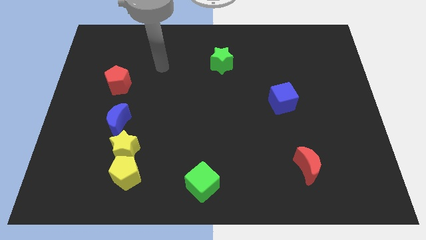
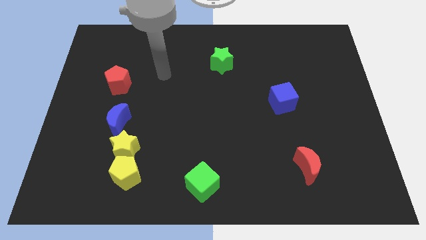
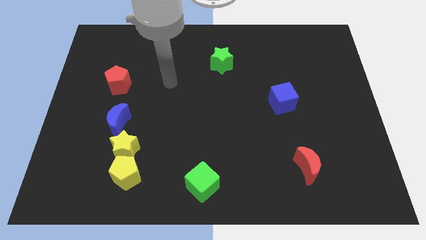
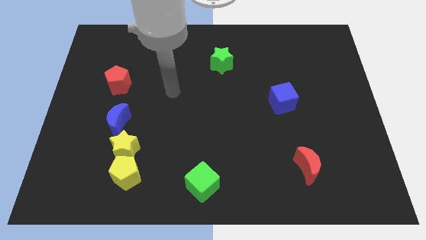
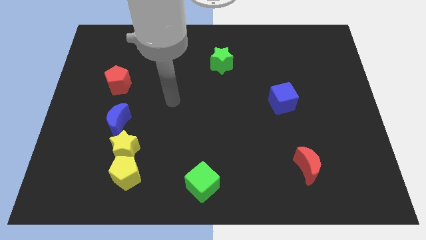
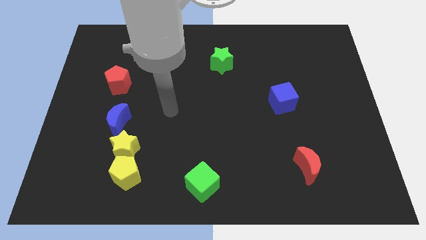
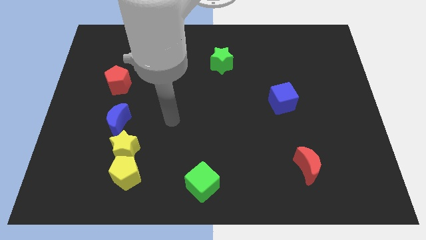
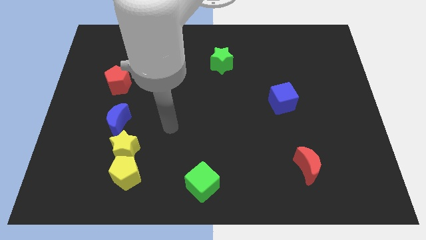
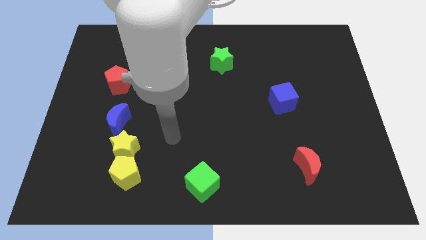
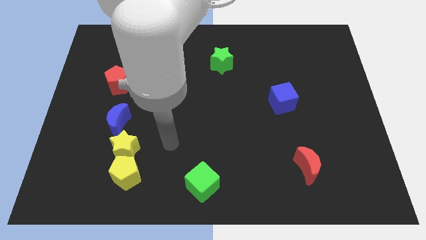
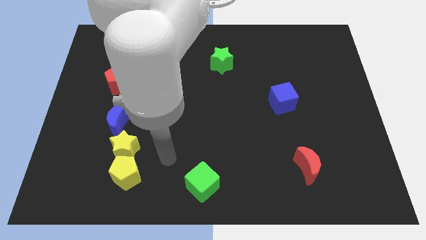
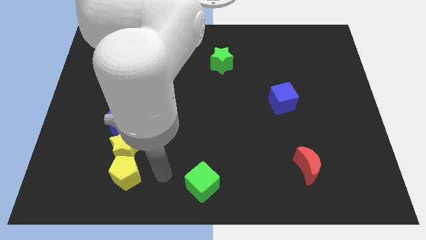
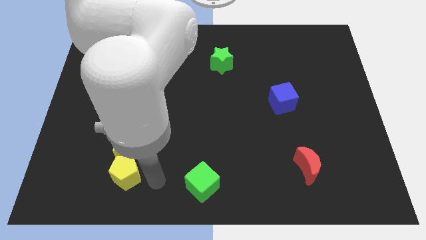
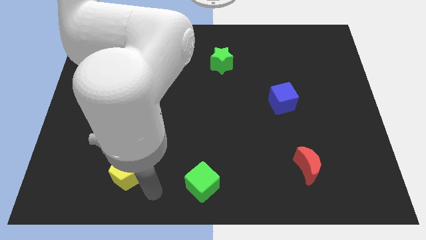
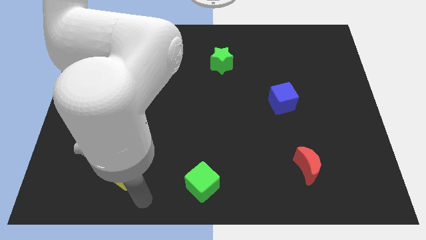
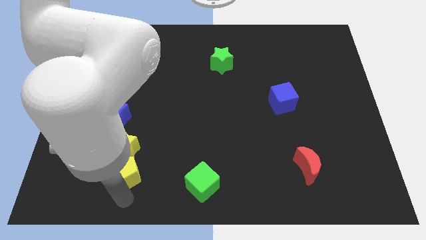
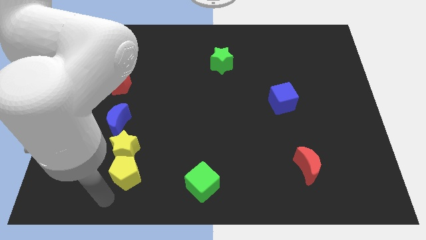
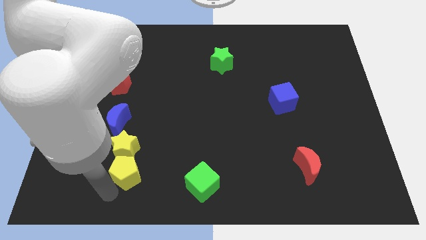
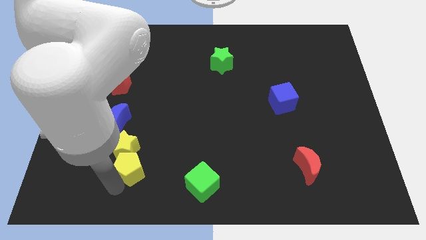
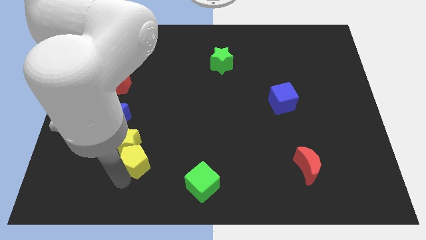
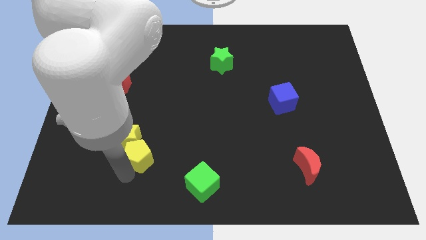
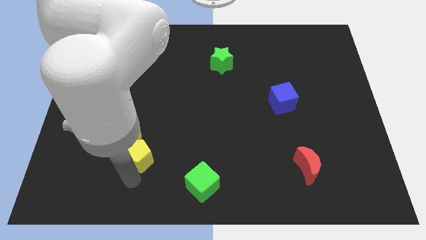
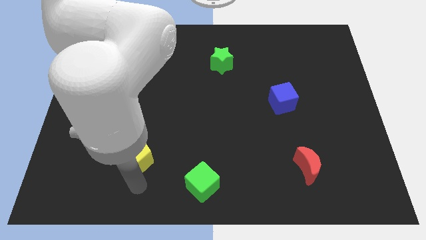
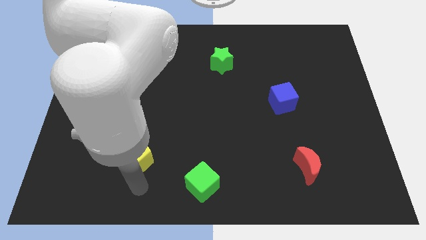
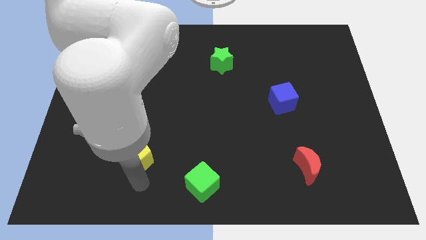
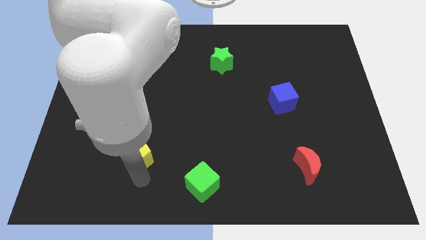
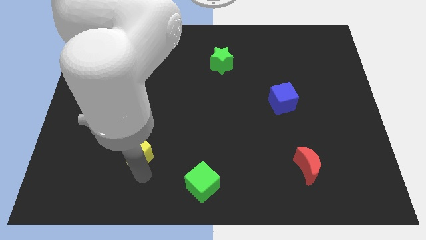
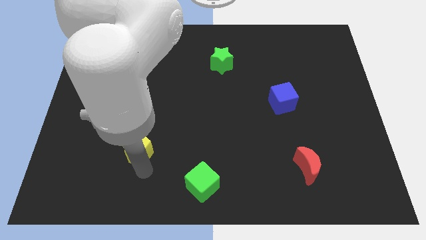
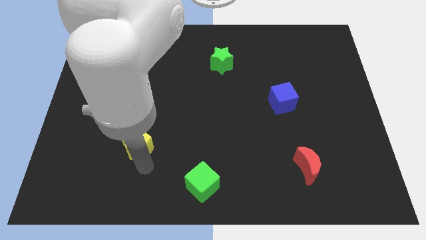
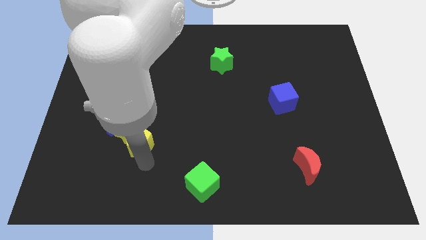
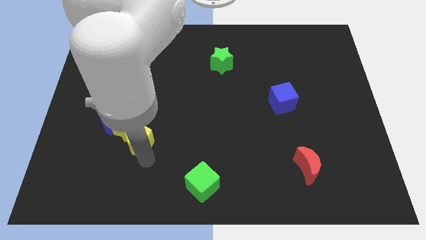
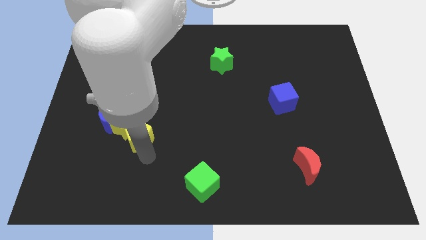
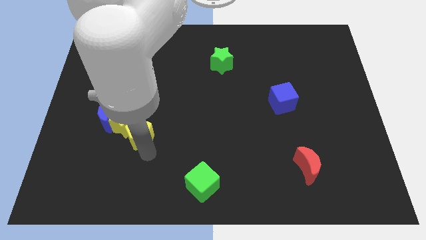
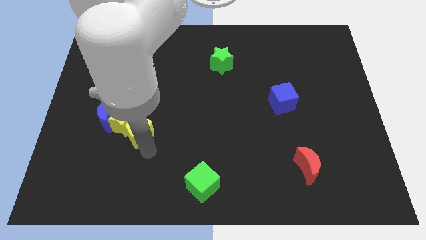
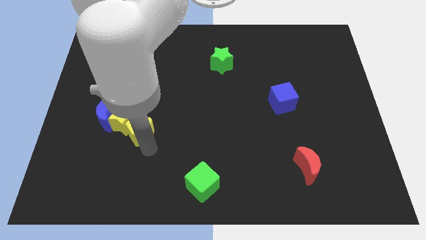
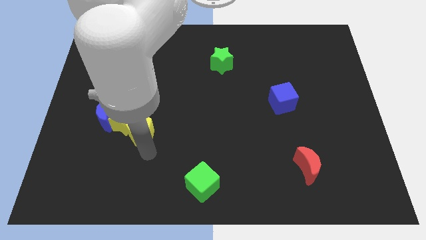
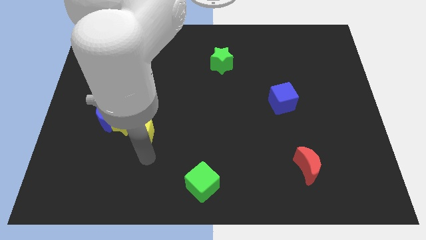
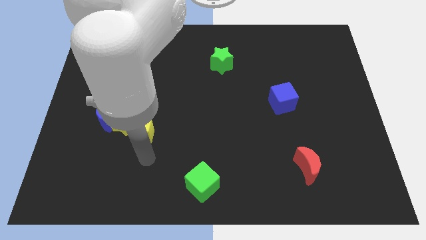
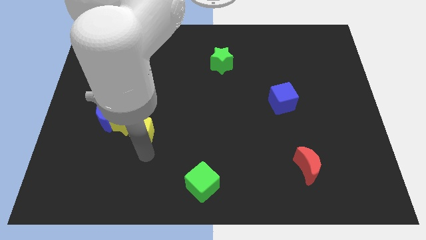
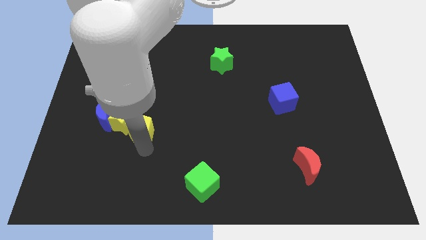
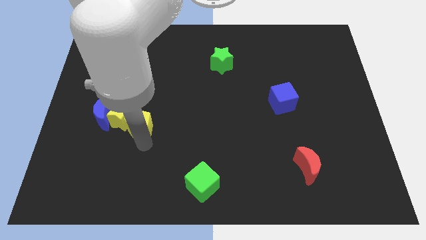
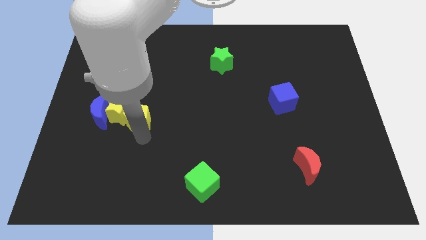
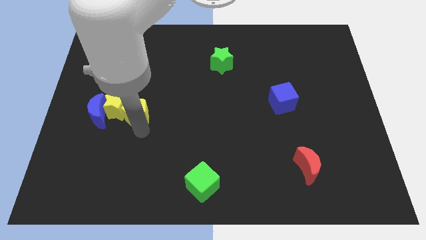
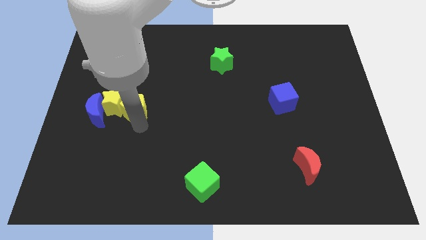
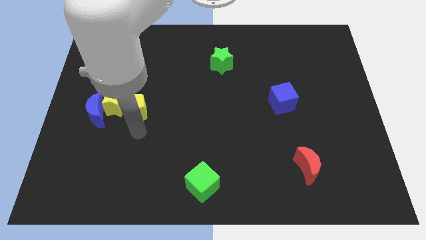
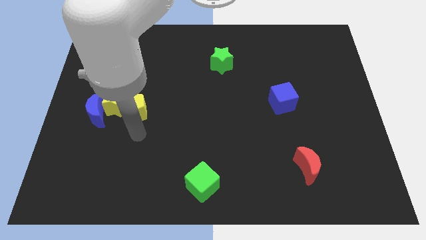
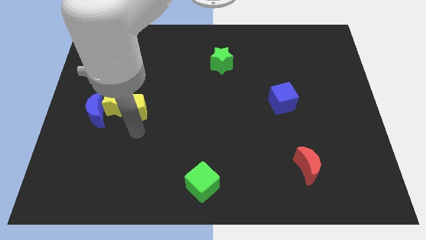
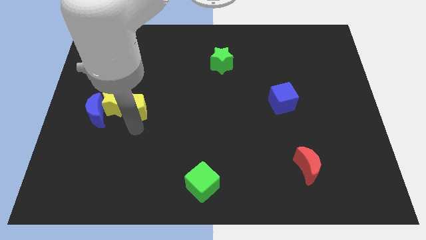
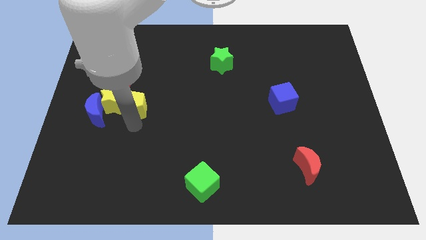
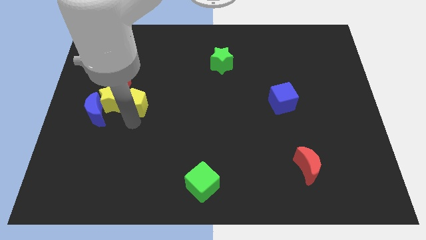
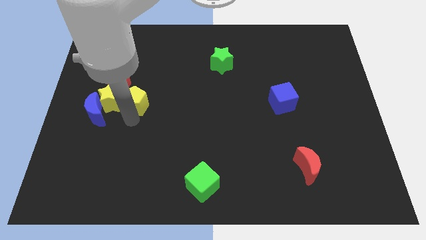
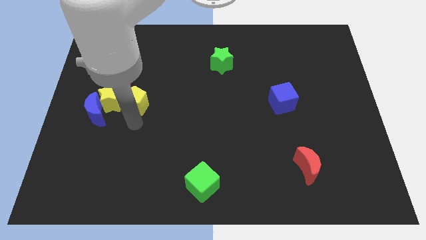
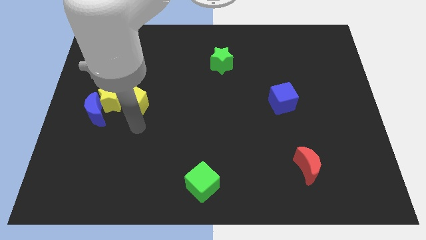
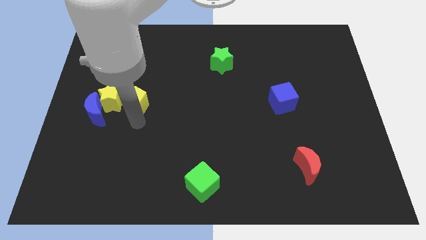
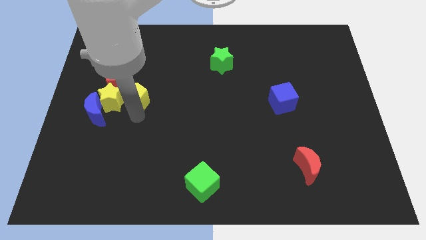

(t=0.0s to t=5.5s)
push the yellow pentagon up

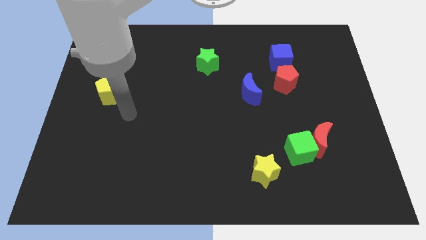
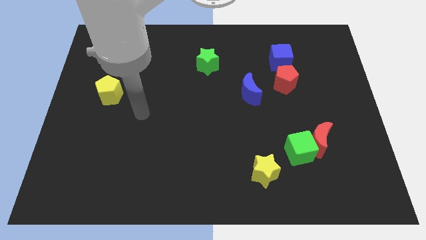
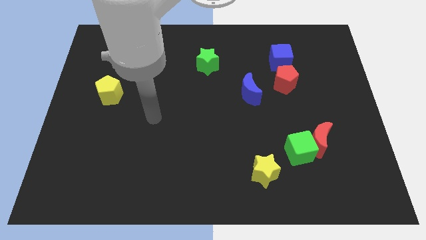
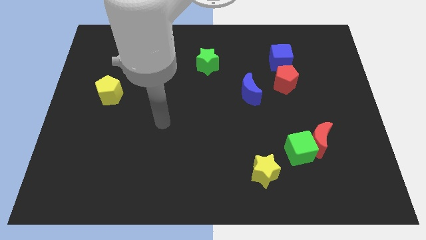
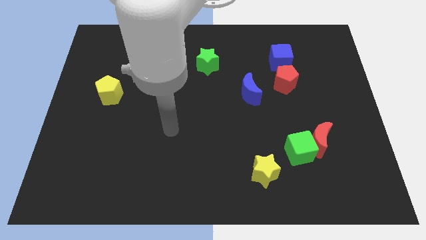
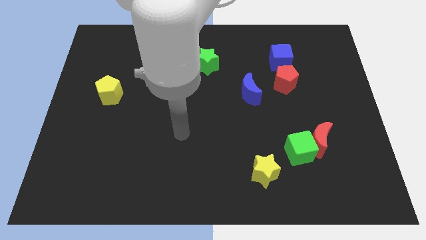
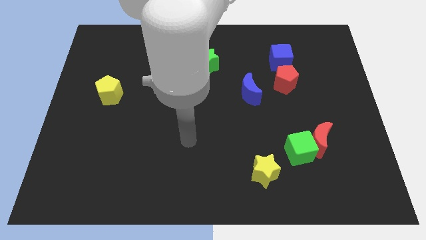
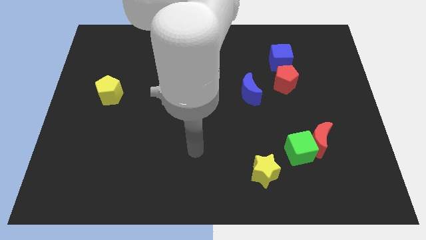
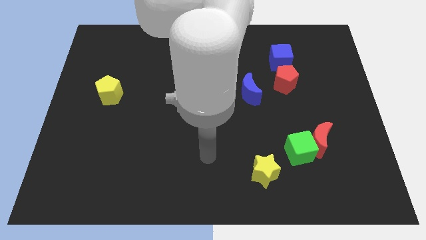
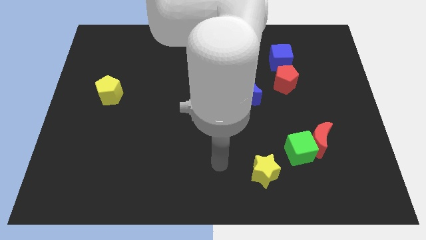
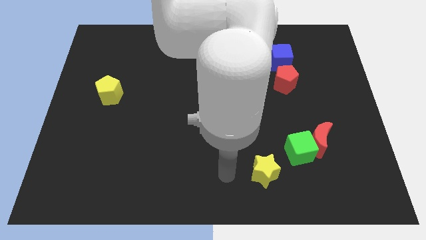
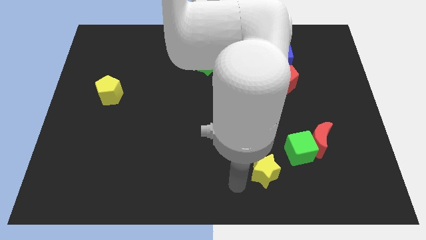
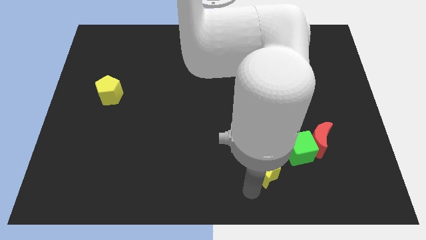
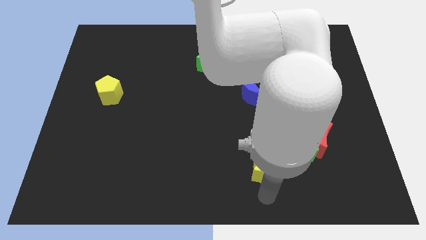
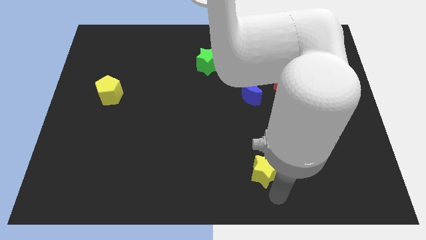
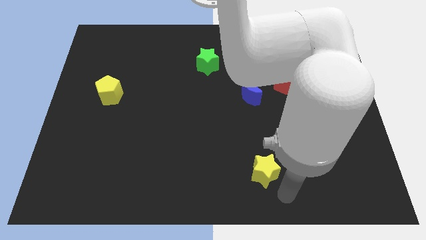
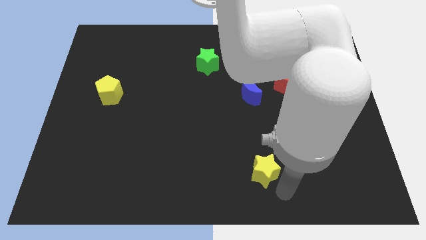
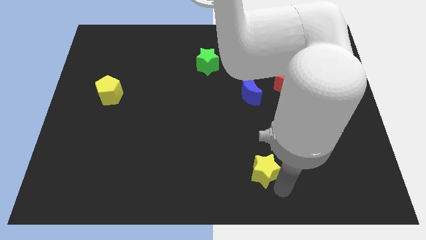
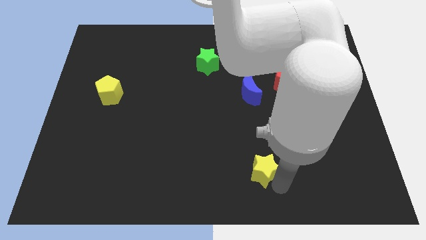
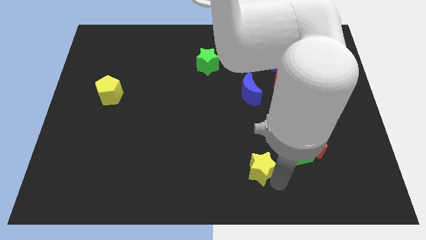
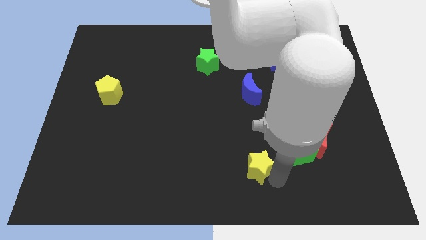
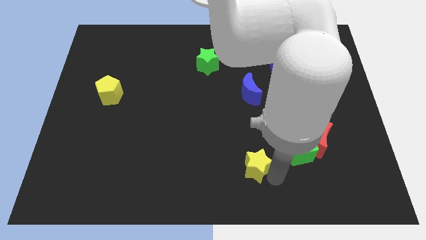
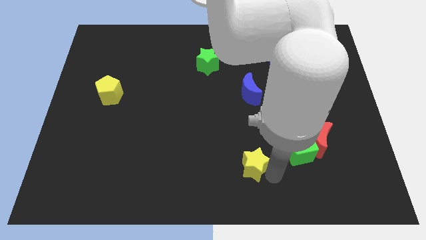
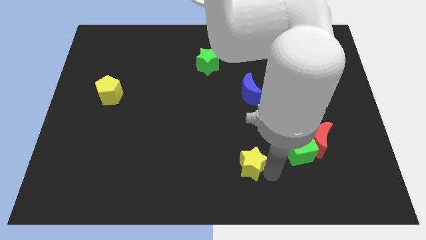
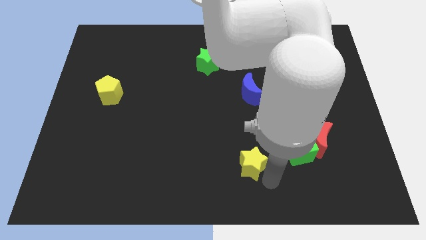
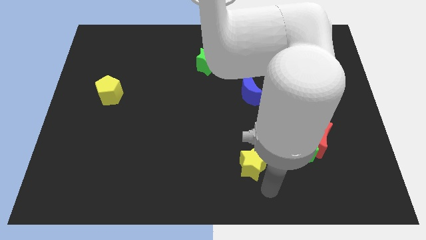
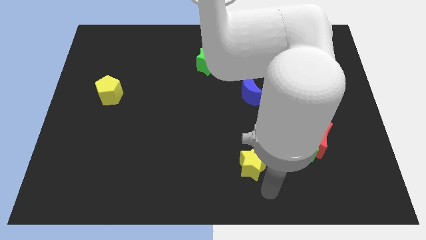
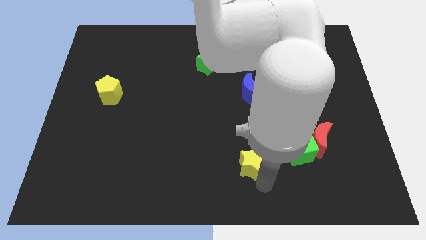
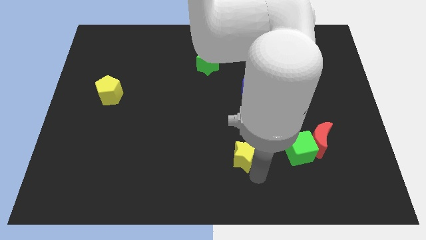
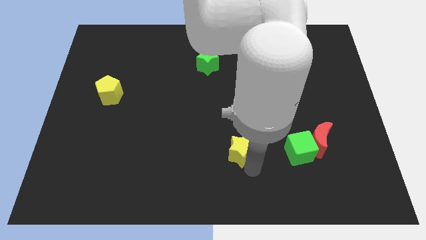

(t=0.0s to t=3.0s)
slide the yellow star somewhat up and to the left diagonally
